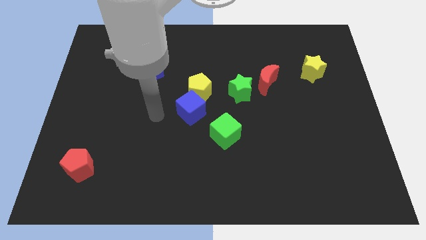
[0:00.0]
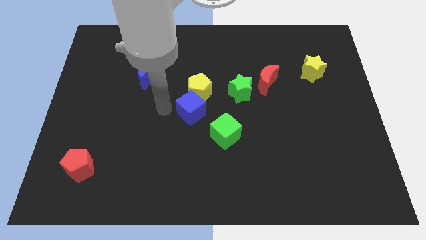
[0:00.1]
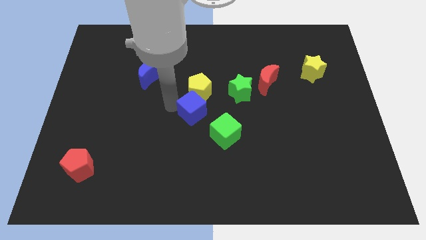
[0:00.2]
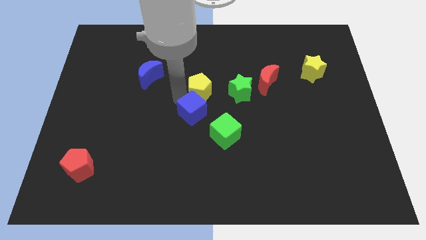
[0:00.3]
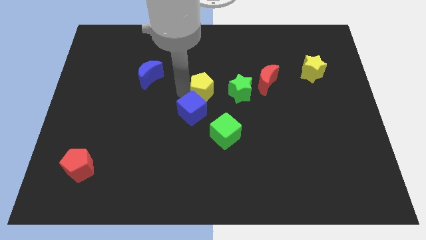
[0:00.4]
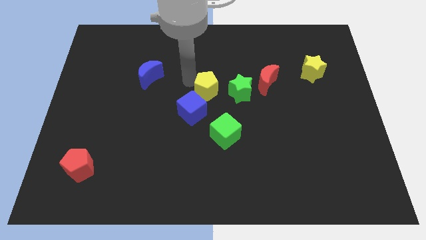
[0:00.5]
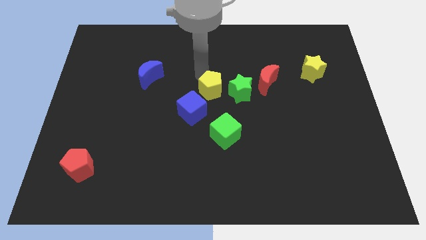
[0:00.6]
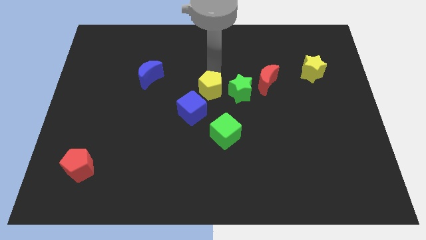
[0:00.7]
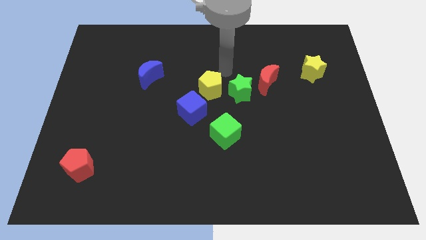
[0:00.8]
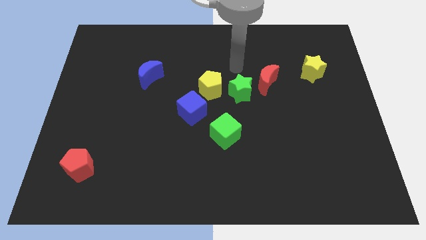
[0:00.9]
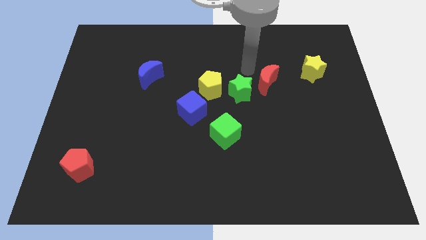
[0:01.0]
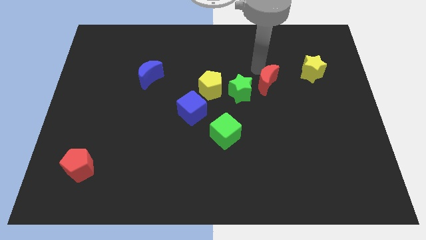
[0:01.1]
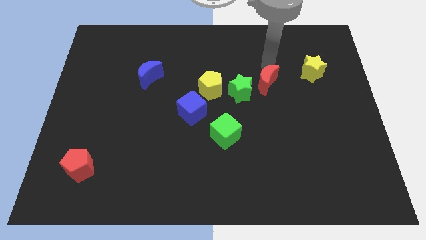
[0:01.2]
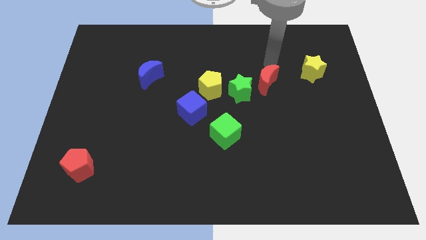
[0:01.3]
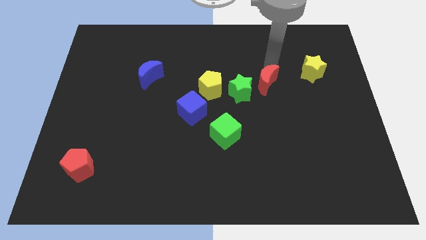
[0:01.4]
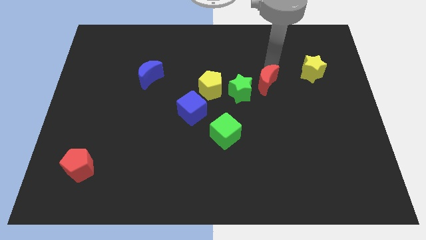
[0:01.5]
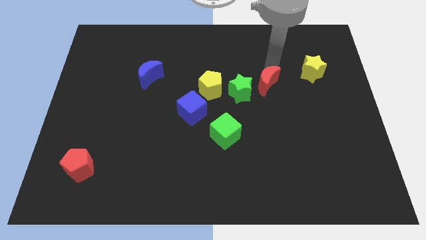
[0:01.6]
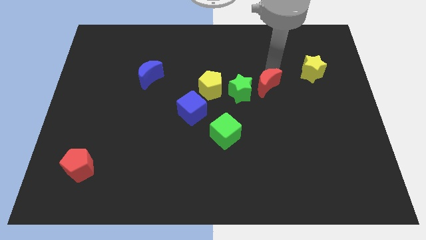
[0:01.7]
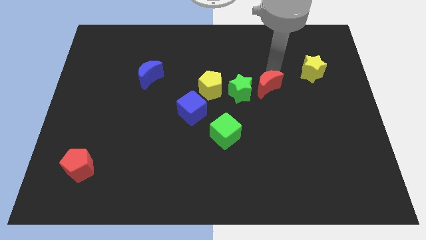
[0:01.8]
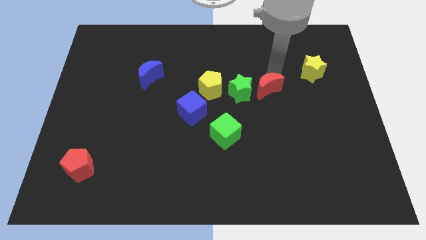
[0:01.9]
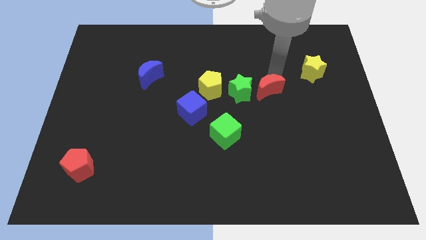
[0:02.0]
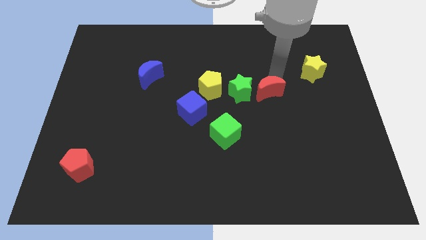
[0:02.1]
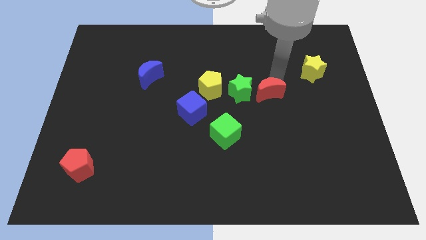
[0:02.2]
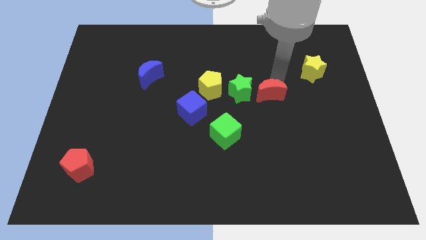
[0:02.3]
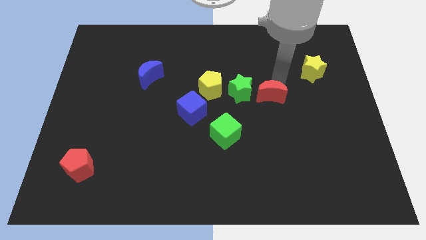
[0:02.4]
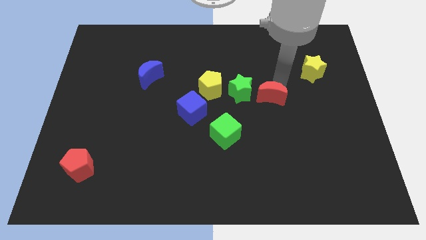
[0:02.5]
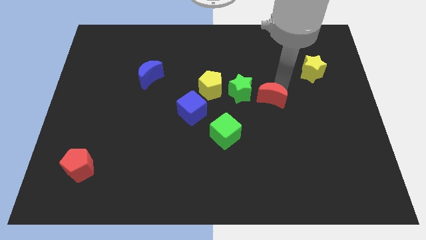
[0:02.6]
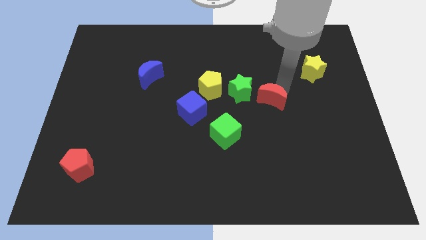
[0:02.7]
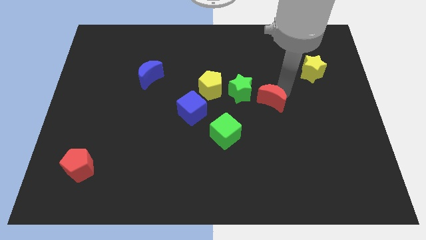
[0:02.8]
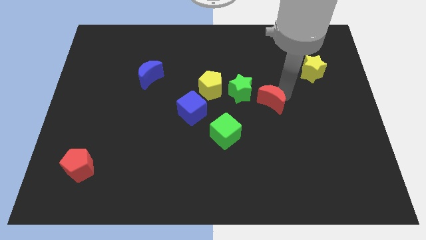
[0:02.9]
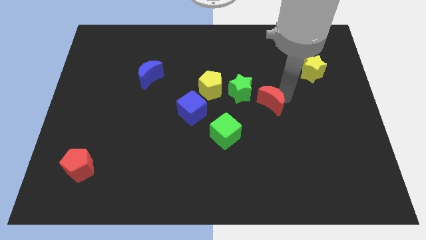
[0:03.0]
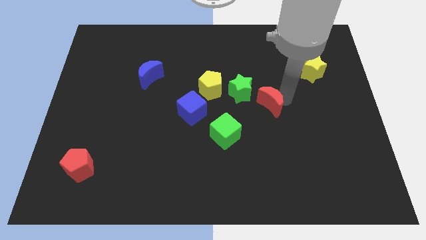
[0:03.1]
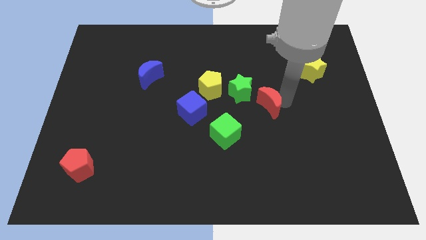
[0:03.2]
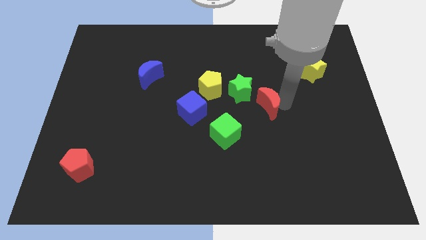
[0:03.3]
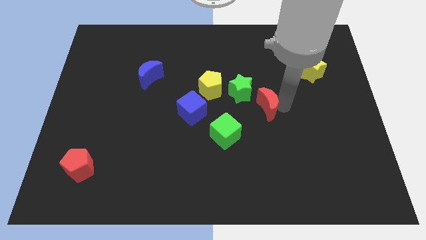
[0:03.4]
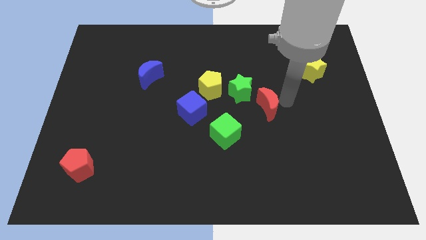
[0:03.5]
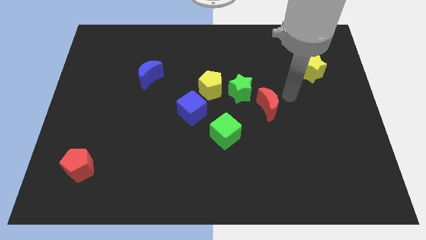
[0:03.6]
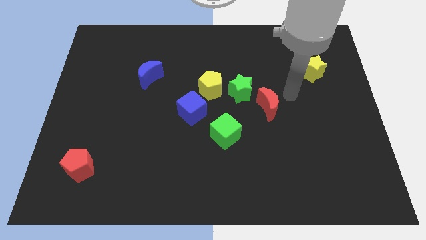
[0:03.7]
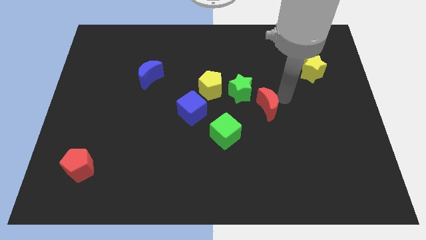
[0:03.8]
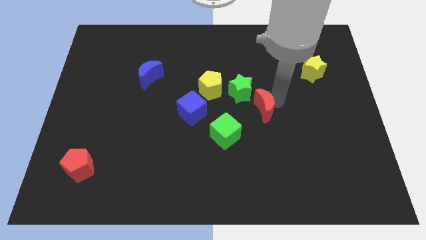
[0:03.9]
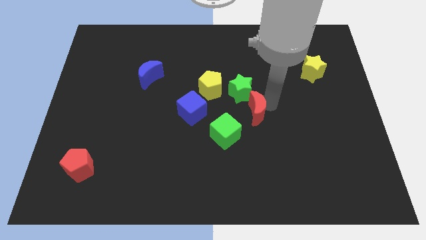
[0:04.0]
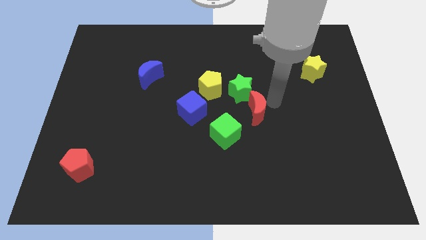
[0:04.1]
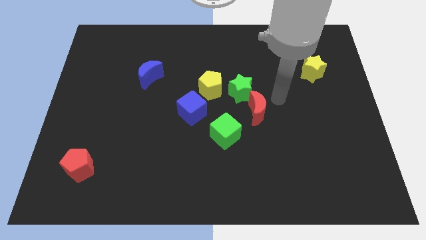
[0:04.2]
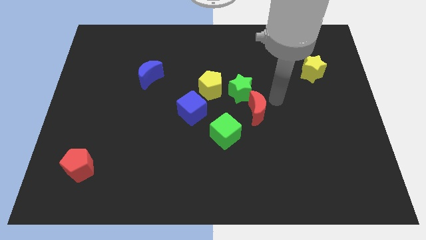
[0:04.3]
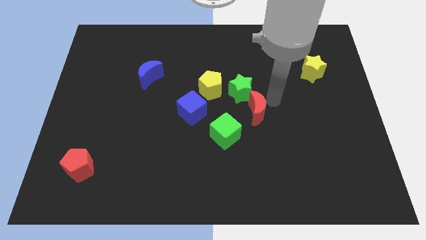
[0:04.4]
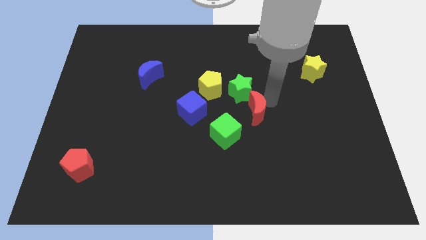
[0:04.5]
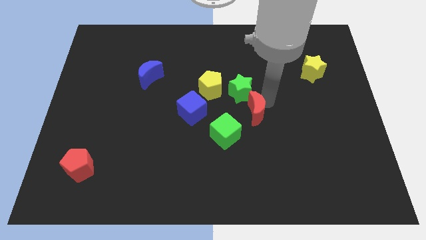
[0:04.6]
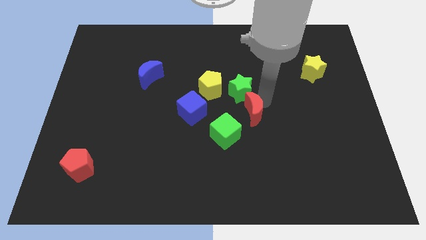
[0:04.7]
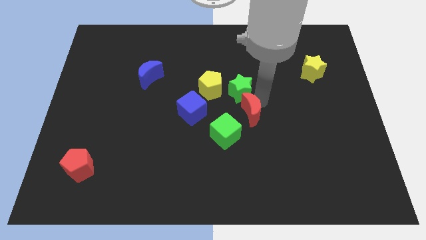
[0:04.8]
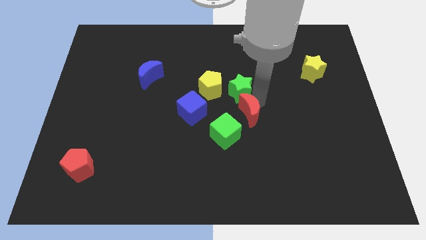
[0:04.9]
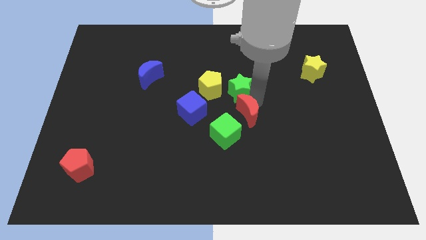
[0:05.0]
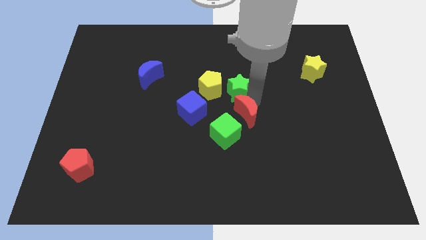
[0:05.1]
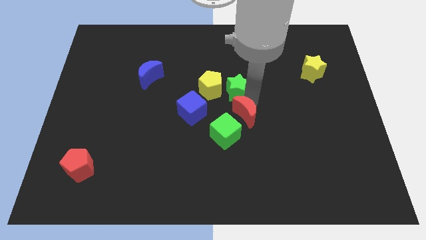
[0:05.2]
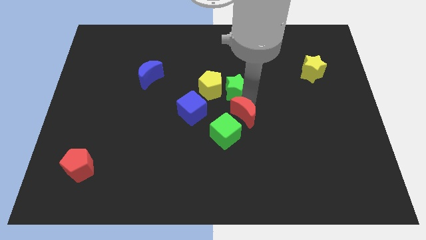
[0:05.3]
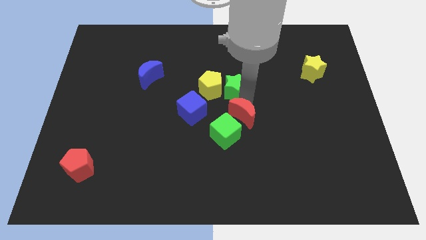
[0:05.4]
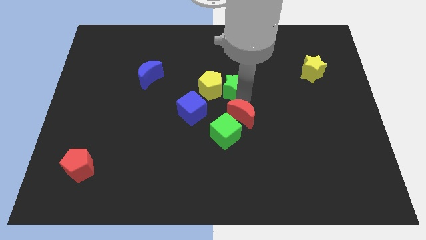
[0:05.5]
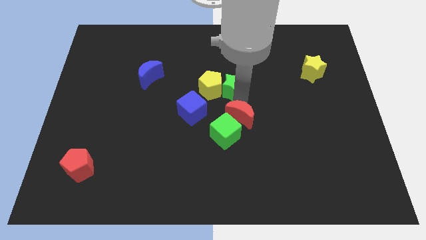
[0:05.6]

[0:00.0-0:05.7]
push the red moon next to the green cube

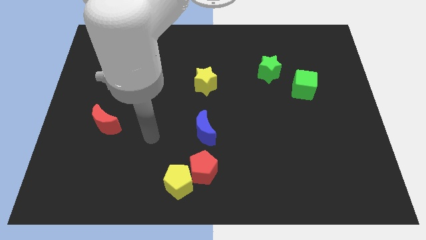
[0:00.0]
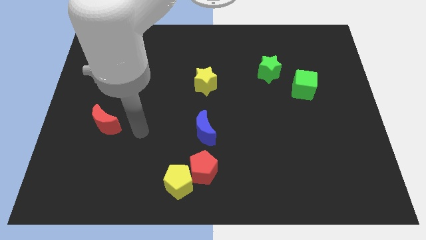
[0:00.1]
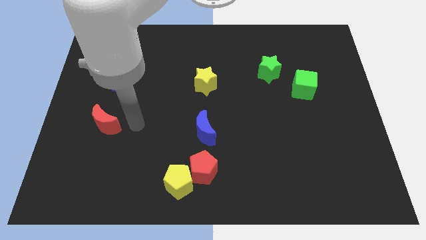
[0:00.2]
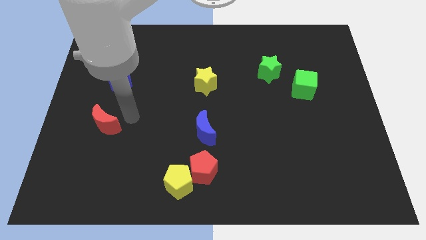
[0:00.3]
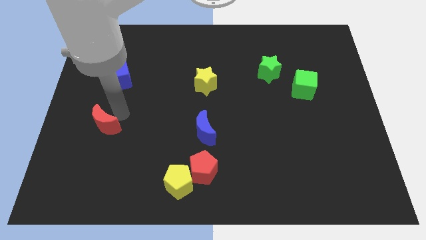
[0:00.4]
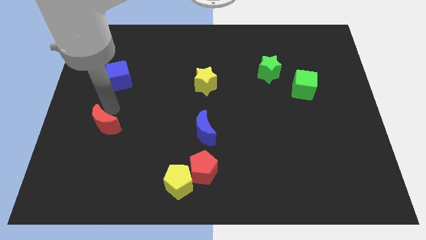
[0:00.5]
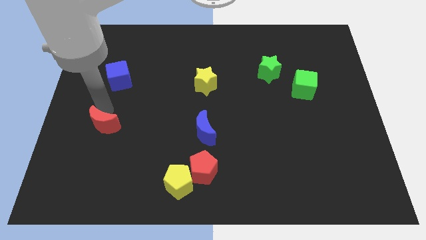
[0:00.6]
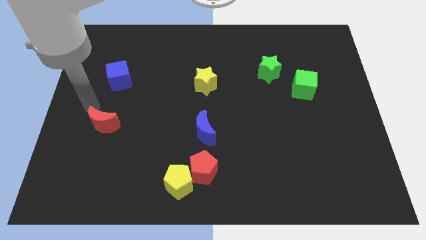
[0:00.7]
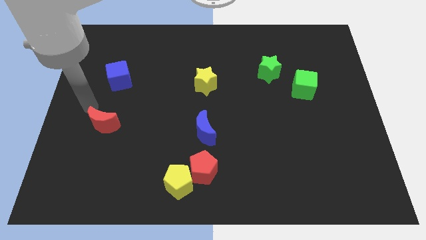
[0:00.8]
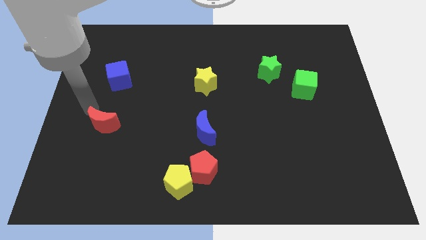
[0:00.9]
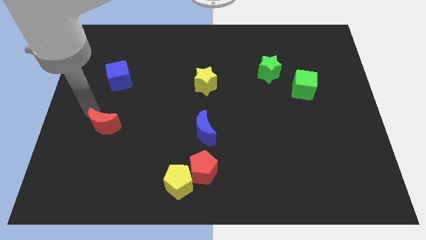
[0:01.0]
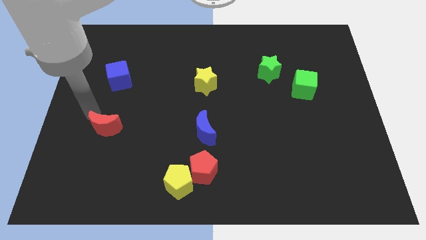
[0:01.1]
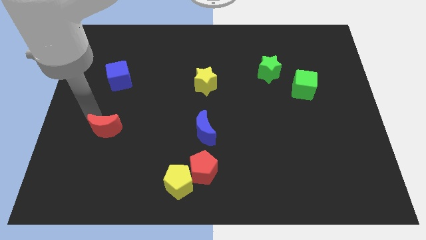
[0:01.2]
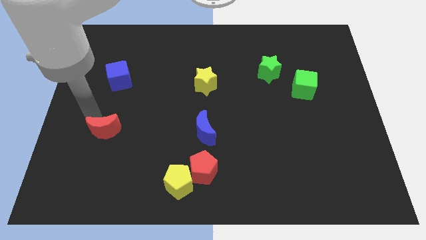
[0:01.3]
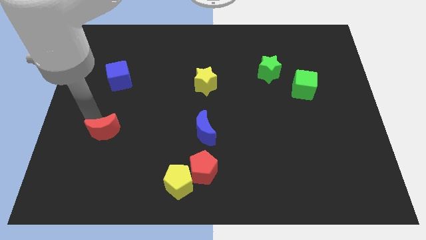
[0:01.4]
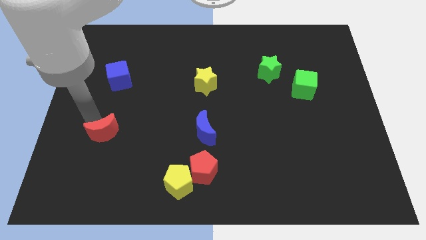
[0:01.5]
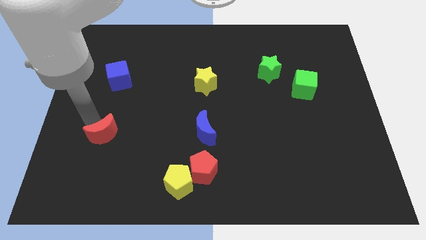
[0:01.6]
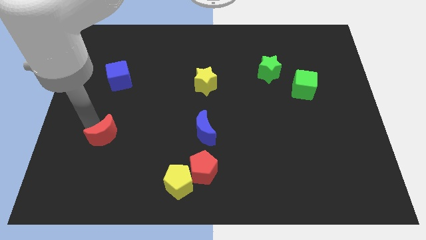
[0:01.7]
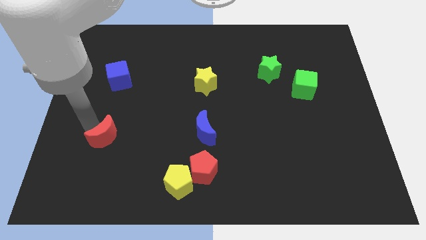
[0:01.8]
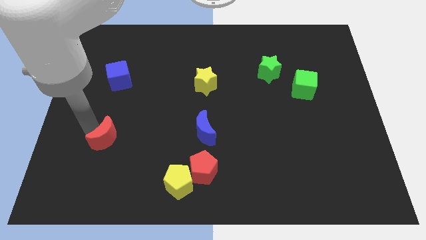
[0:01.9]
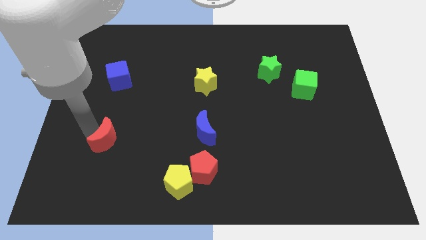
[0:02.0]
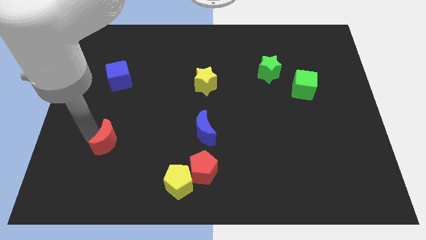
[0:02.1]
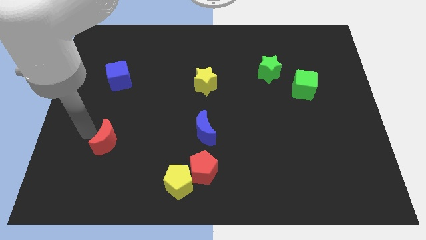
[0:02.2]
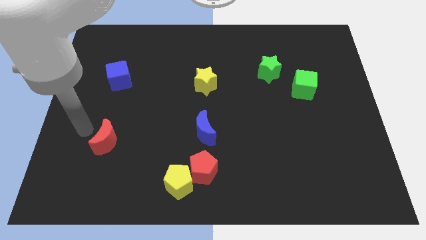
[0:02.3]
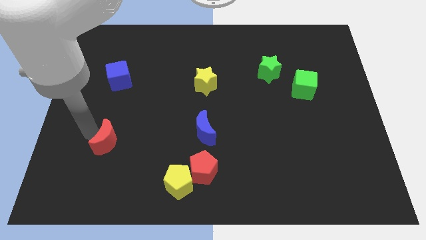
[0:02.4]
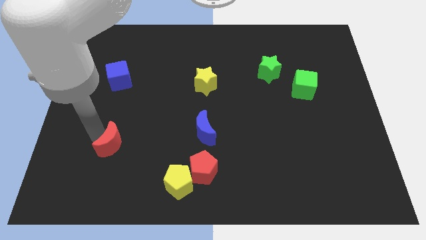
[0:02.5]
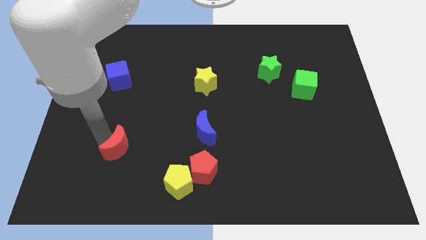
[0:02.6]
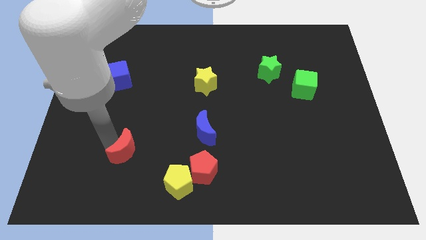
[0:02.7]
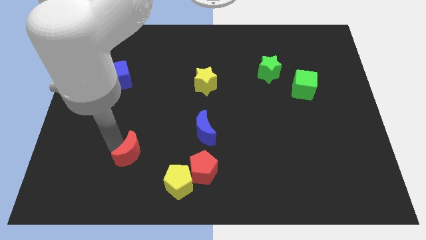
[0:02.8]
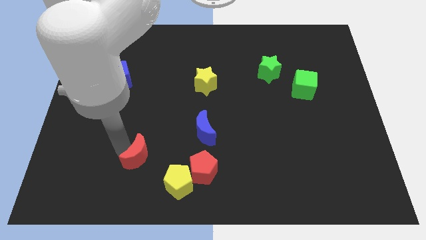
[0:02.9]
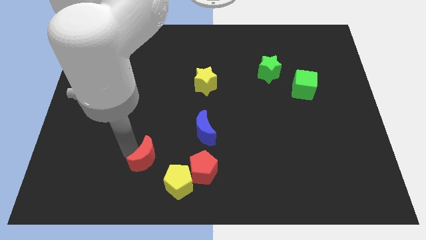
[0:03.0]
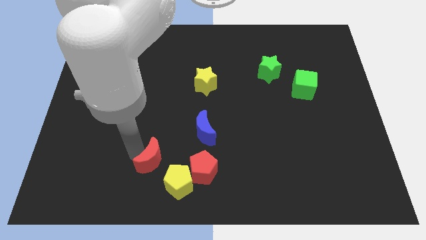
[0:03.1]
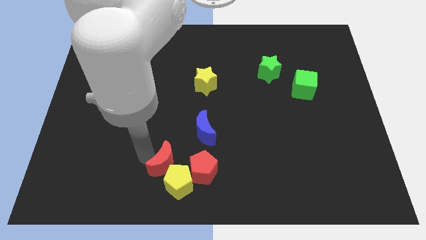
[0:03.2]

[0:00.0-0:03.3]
push the red moon to the yellow pentagon
